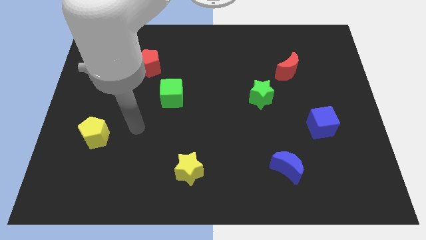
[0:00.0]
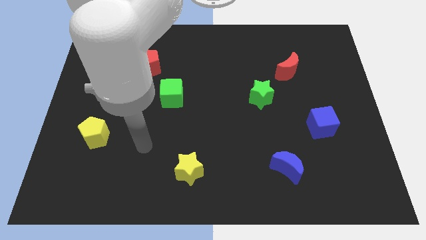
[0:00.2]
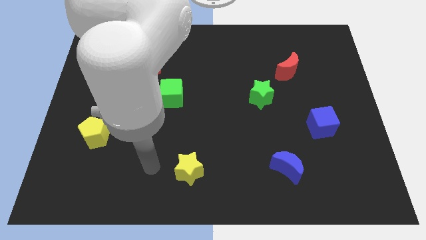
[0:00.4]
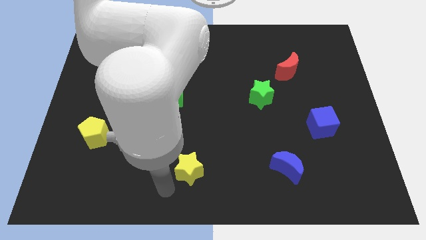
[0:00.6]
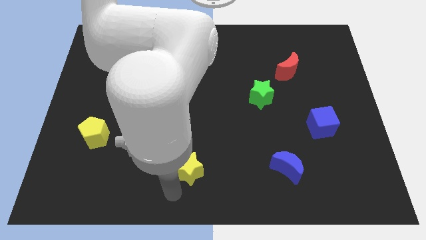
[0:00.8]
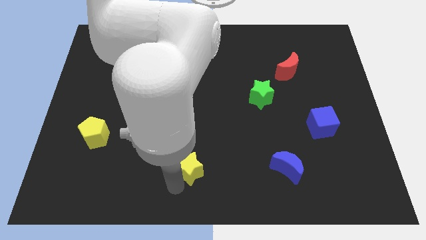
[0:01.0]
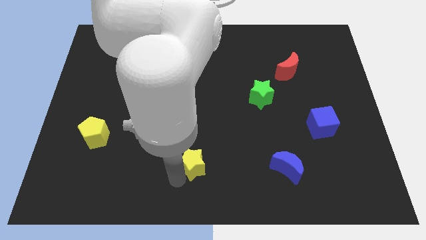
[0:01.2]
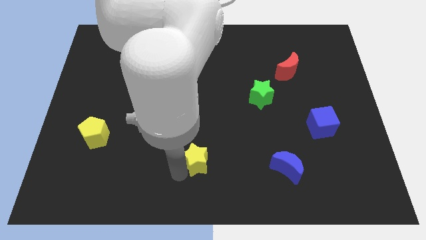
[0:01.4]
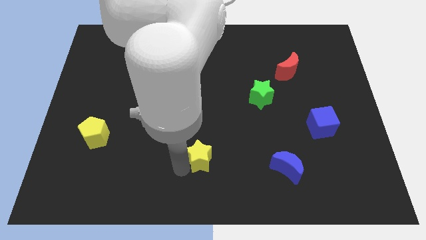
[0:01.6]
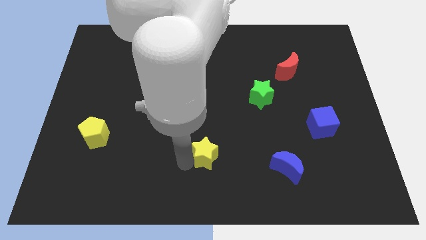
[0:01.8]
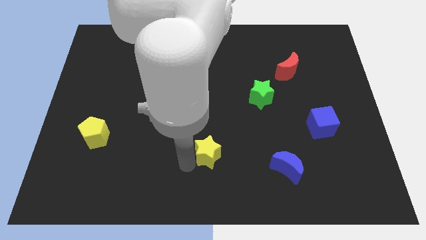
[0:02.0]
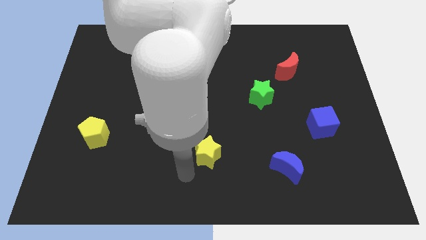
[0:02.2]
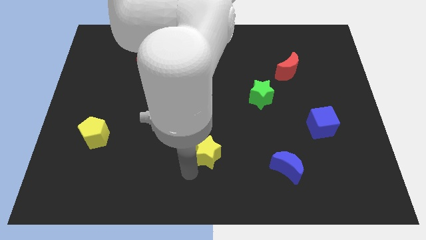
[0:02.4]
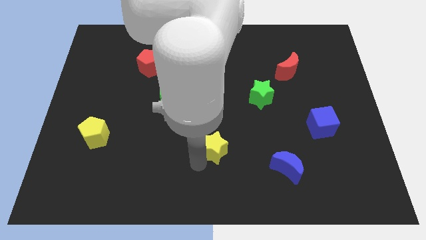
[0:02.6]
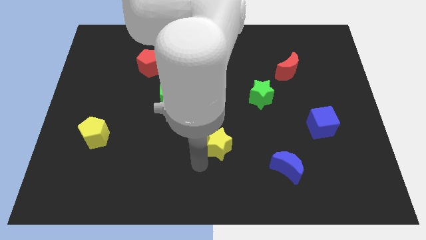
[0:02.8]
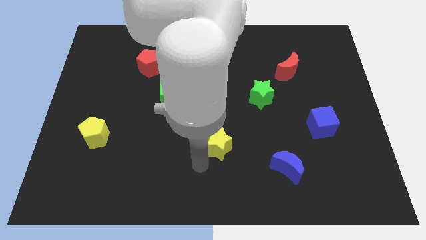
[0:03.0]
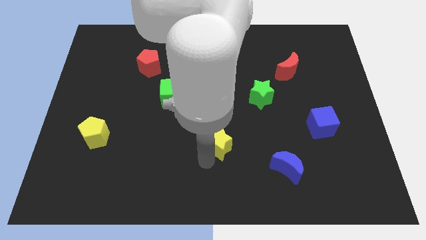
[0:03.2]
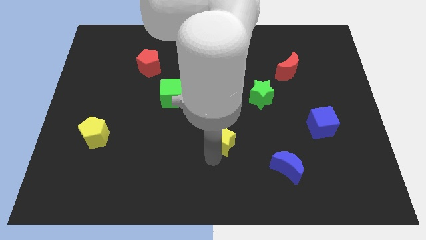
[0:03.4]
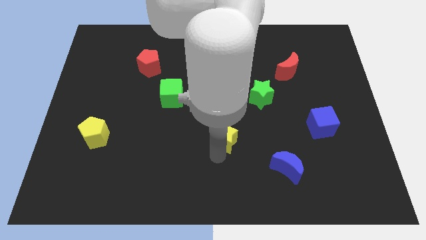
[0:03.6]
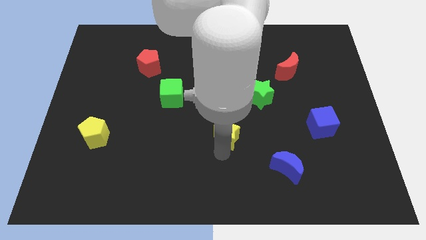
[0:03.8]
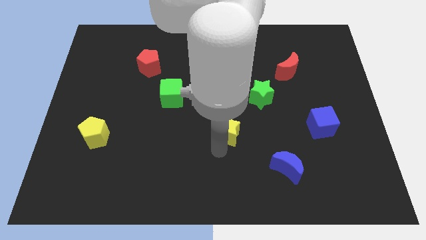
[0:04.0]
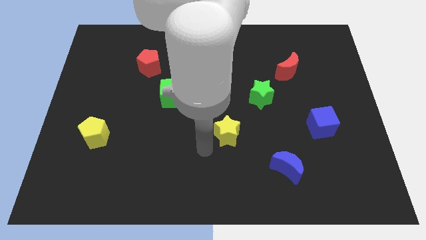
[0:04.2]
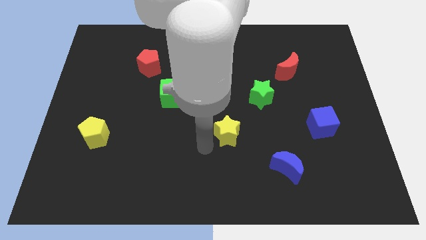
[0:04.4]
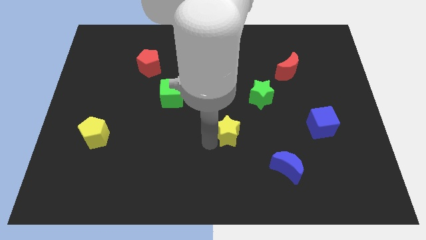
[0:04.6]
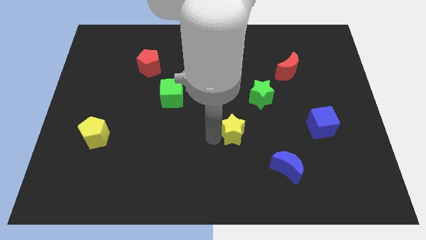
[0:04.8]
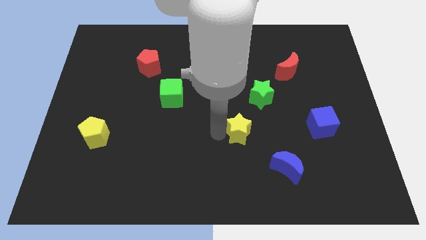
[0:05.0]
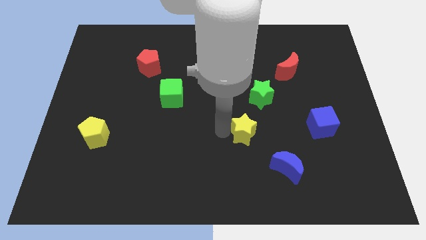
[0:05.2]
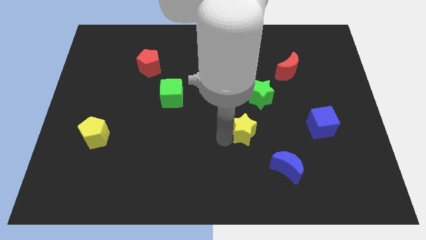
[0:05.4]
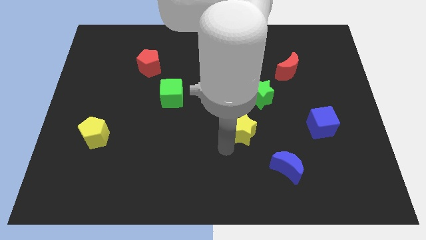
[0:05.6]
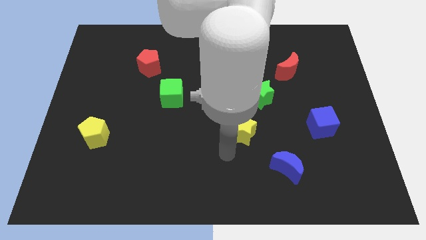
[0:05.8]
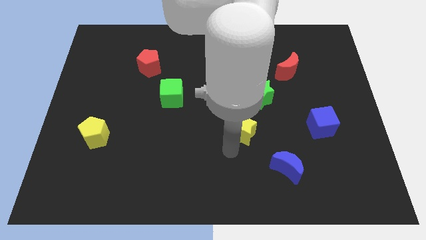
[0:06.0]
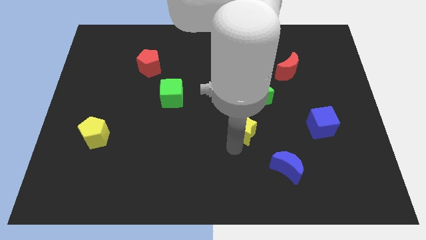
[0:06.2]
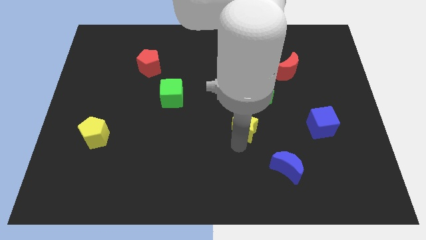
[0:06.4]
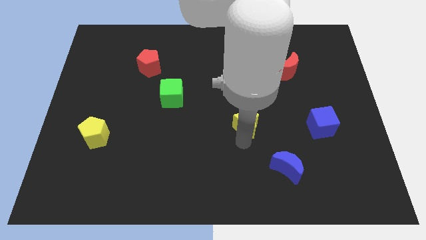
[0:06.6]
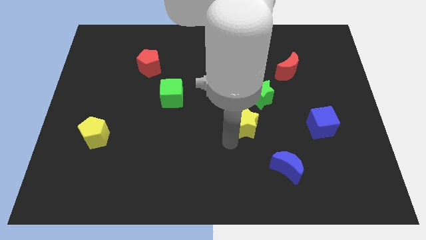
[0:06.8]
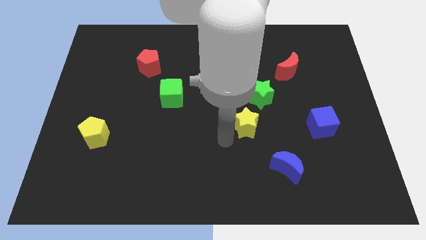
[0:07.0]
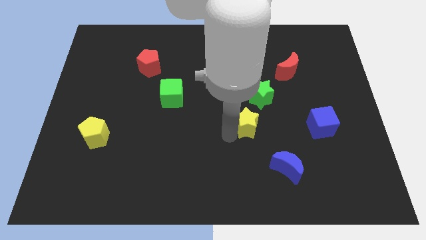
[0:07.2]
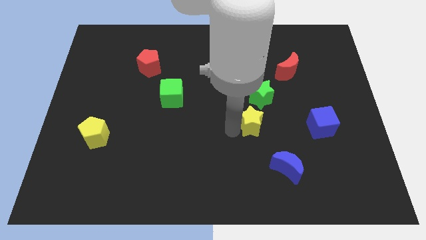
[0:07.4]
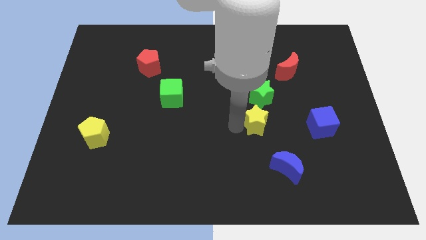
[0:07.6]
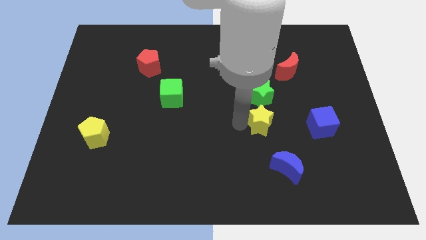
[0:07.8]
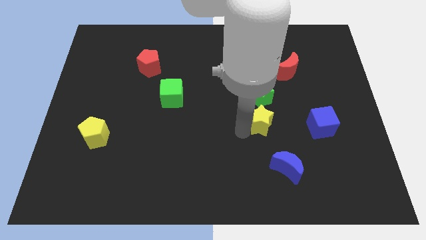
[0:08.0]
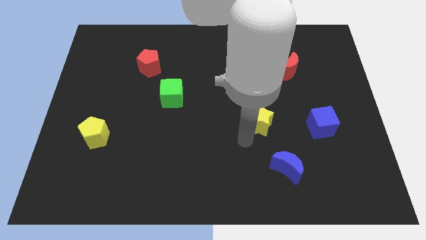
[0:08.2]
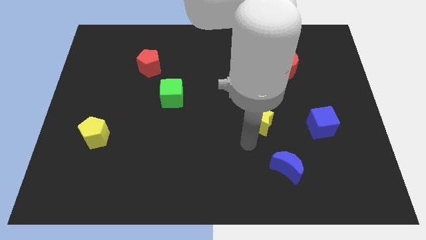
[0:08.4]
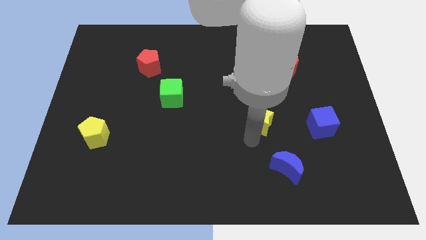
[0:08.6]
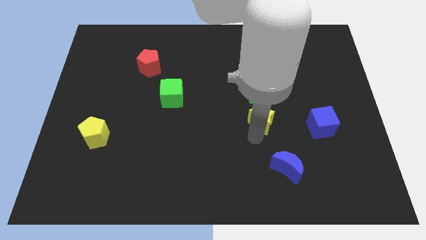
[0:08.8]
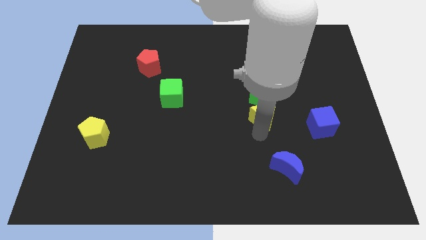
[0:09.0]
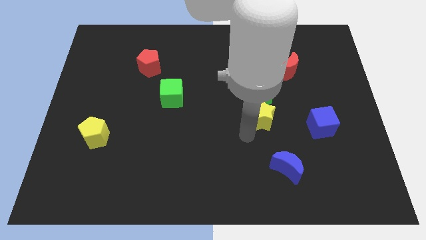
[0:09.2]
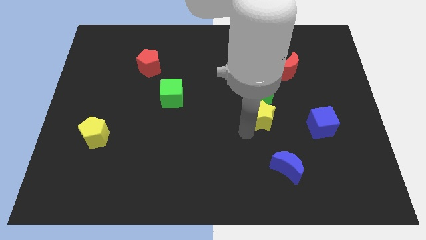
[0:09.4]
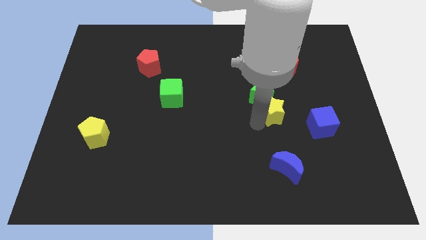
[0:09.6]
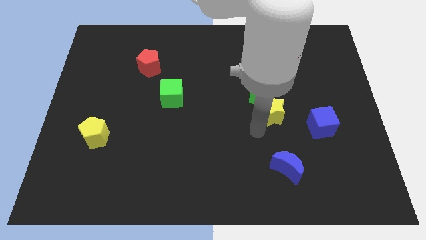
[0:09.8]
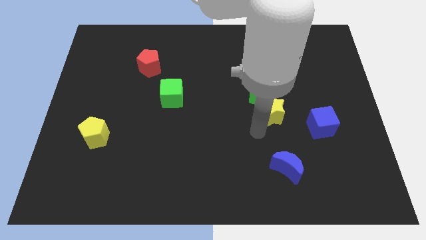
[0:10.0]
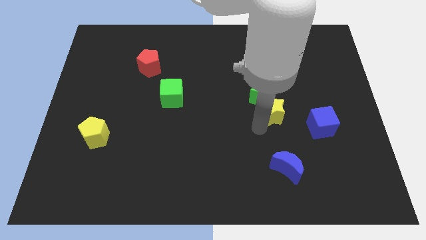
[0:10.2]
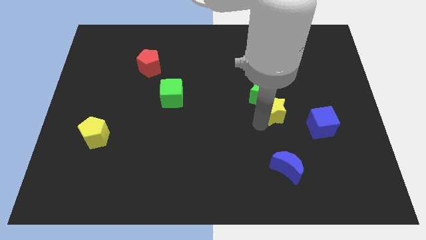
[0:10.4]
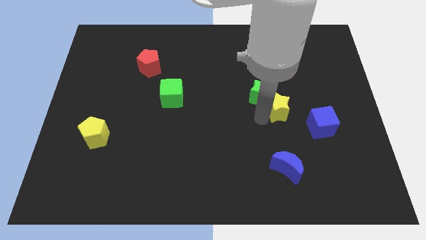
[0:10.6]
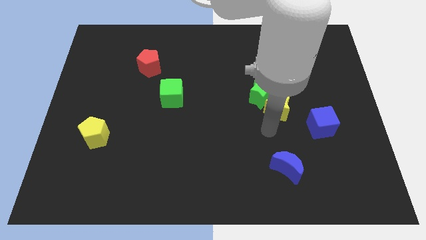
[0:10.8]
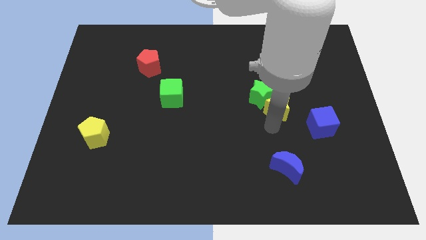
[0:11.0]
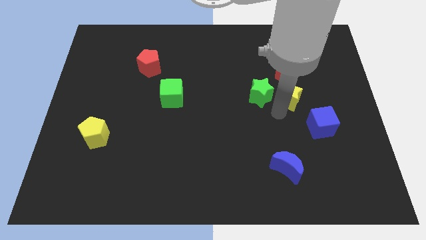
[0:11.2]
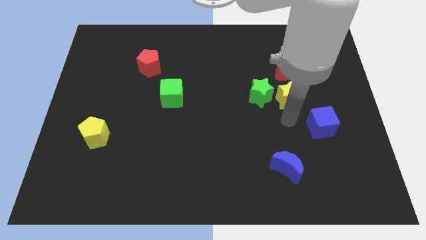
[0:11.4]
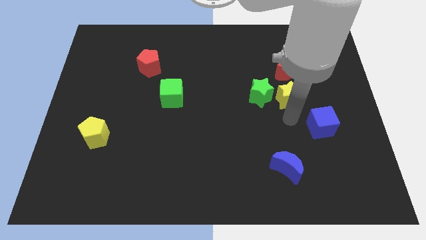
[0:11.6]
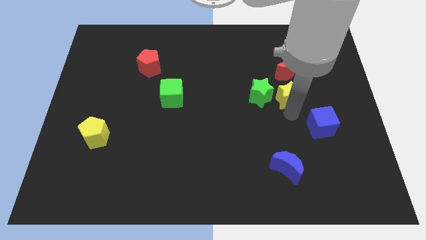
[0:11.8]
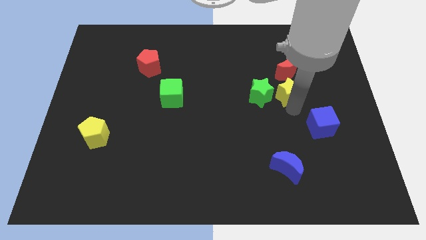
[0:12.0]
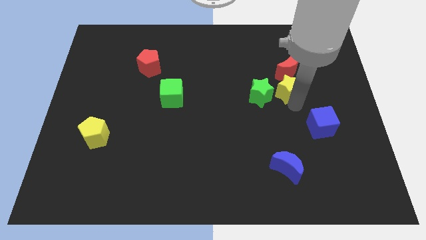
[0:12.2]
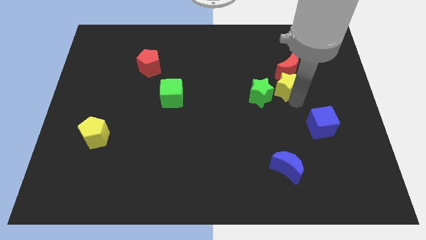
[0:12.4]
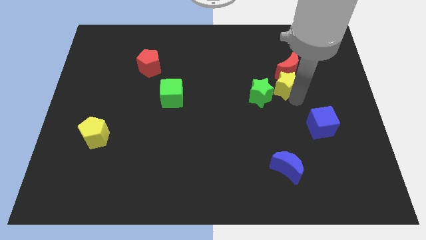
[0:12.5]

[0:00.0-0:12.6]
push the yellow star next to the red moon

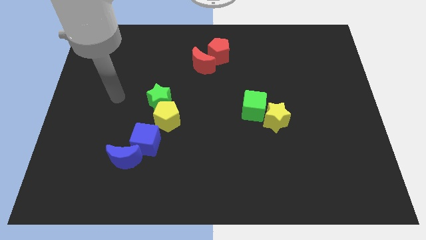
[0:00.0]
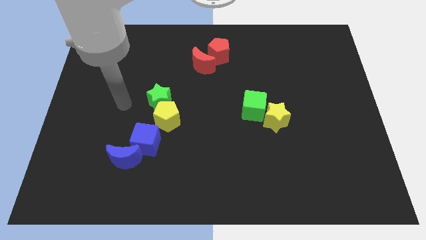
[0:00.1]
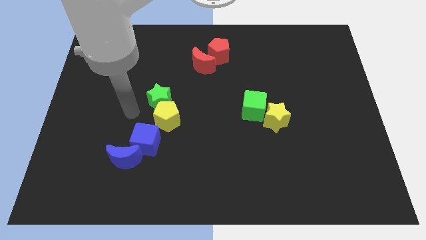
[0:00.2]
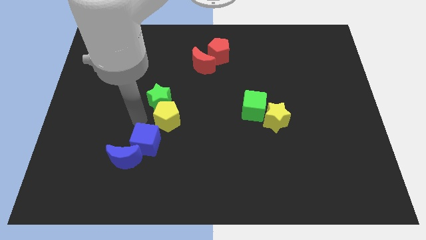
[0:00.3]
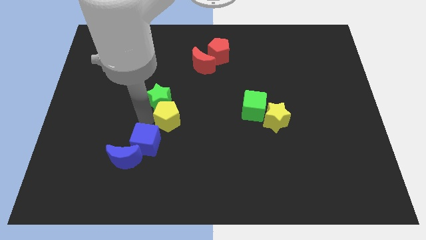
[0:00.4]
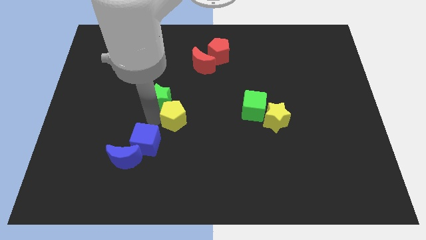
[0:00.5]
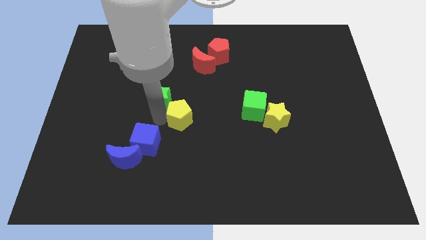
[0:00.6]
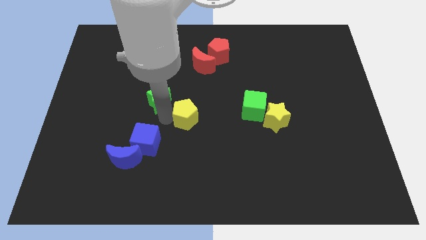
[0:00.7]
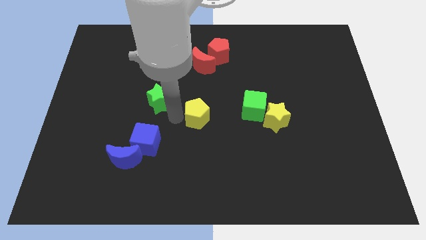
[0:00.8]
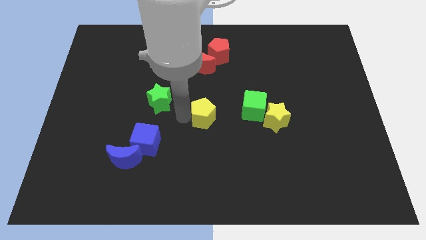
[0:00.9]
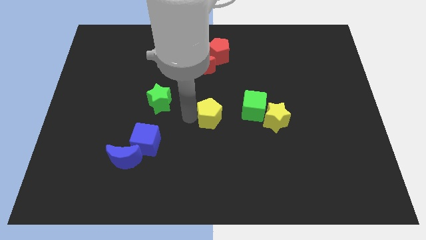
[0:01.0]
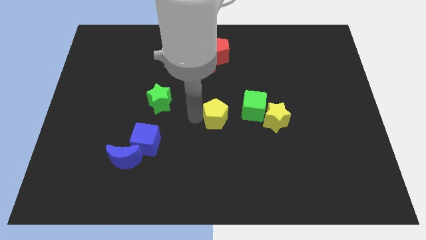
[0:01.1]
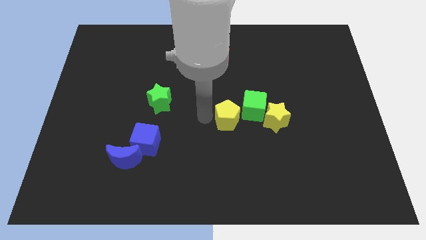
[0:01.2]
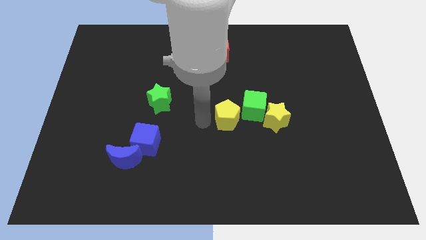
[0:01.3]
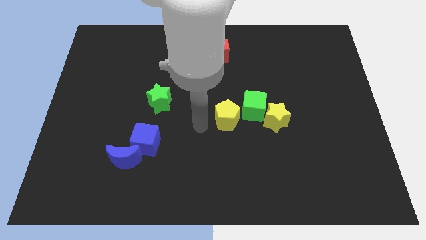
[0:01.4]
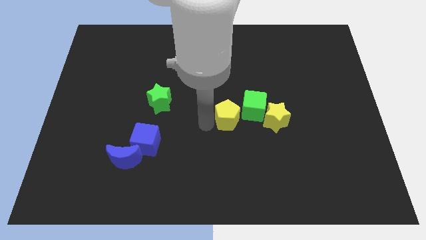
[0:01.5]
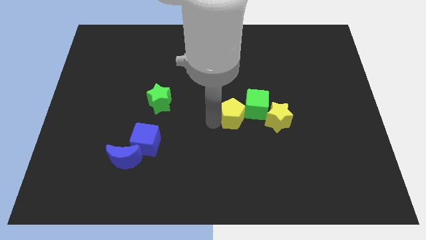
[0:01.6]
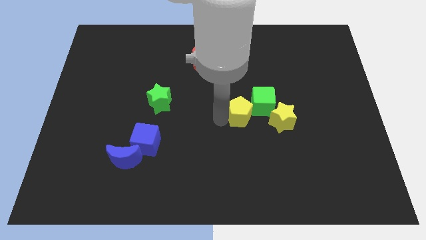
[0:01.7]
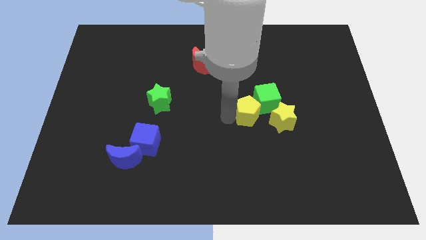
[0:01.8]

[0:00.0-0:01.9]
slide the yellow pentagon close to the green cube
